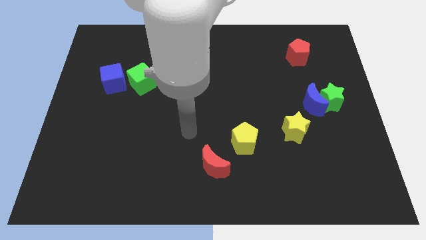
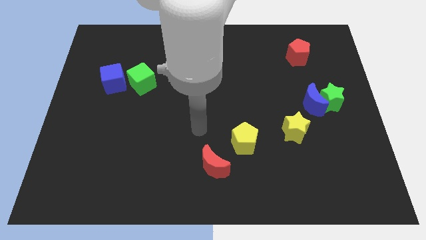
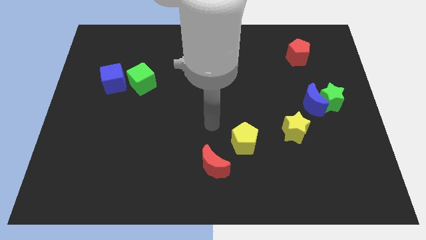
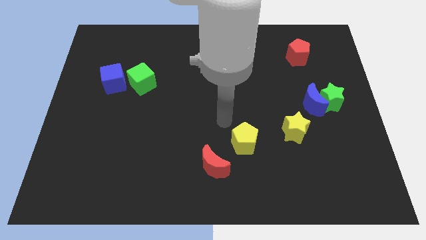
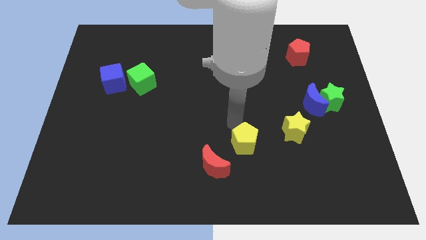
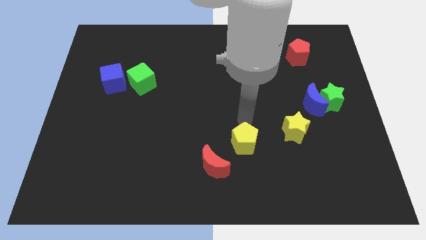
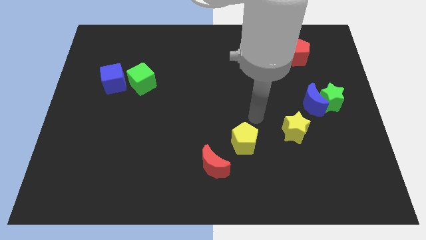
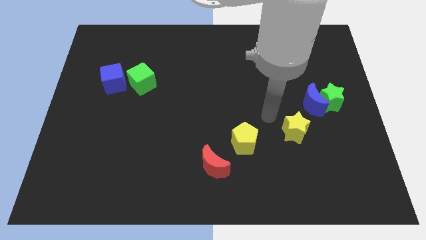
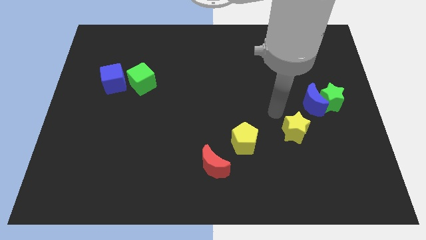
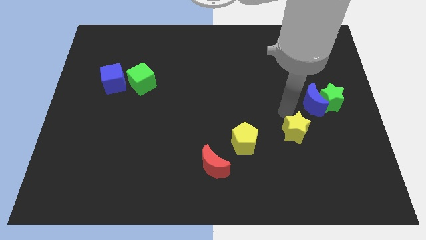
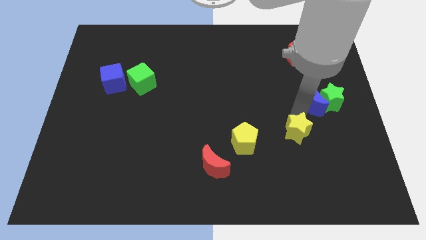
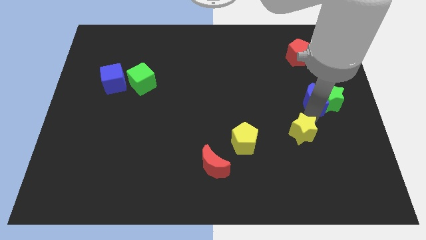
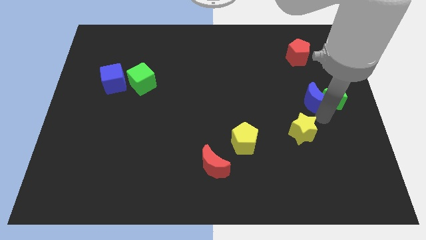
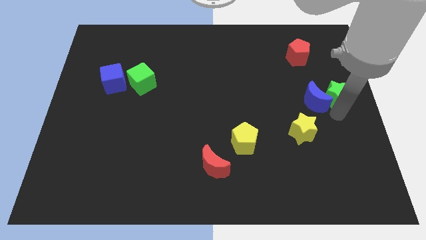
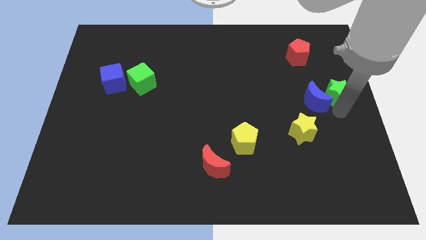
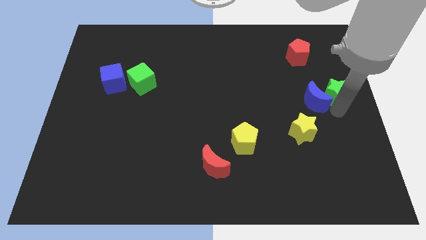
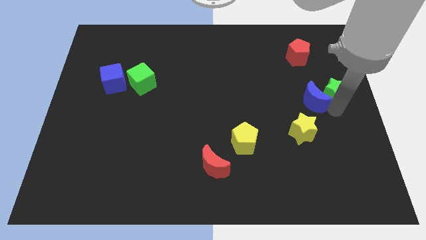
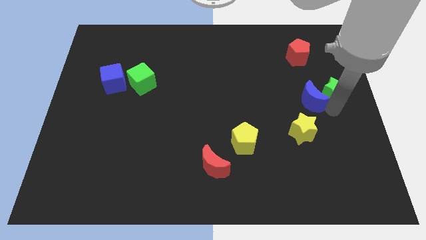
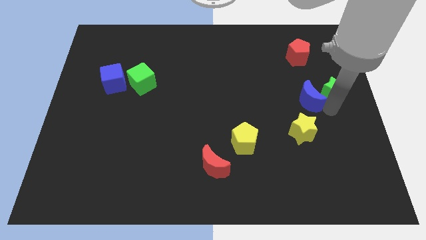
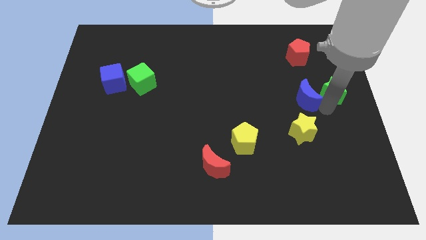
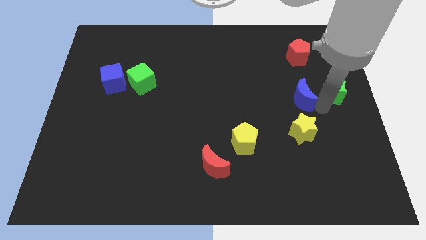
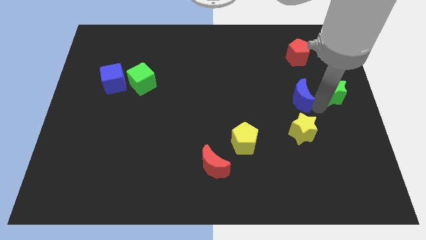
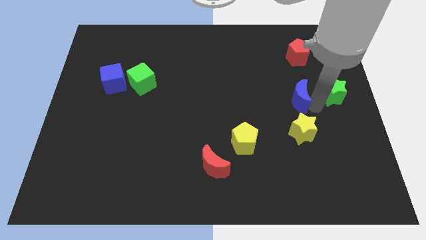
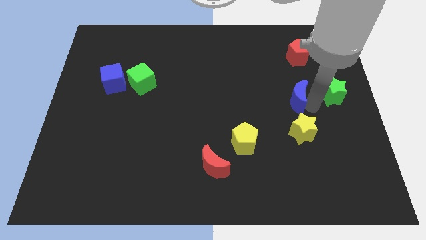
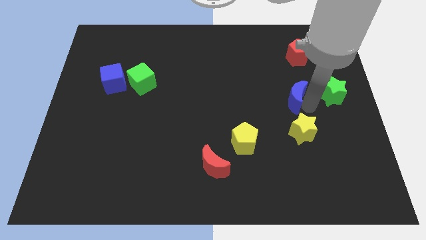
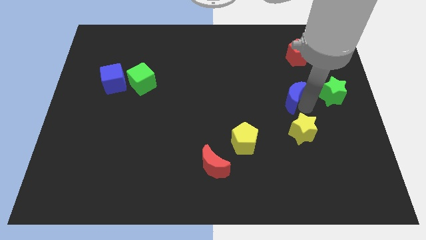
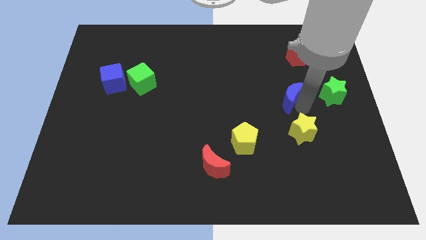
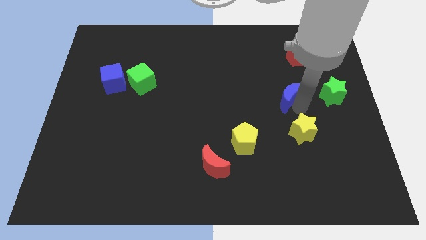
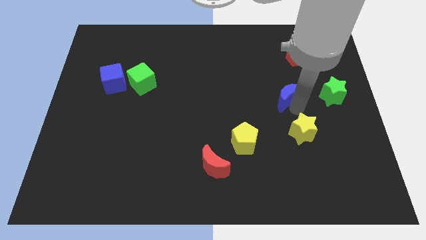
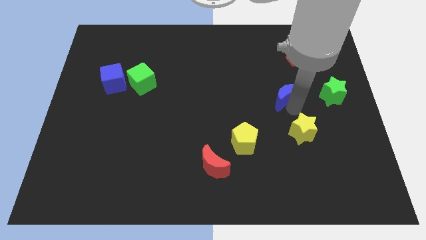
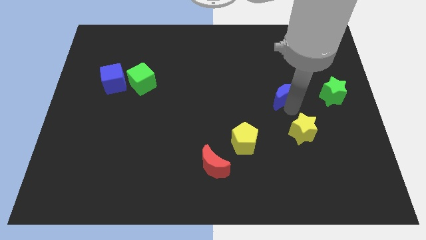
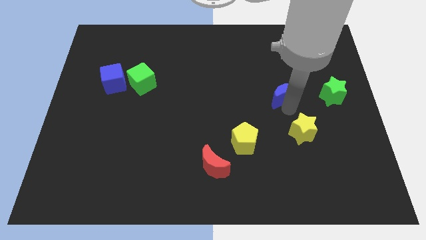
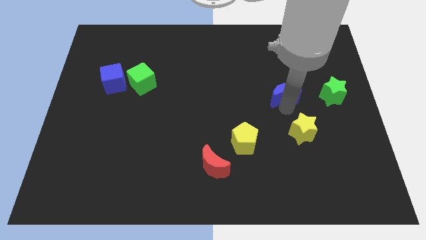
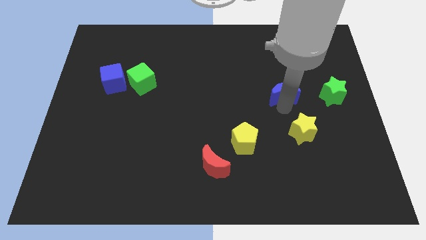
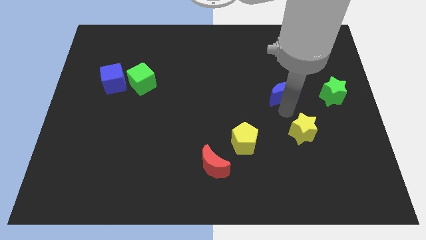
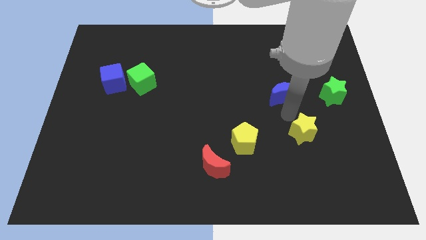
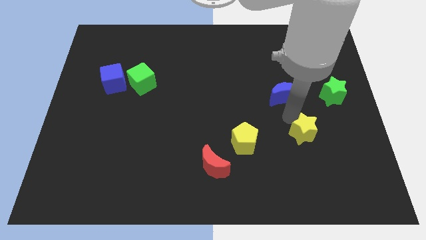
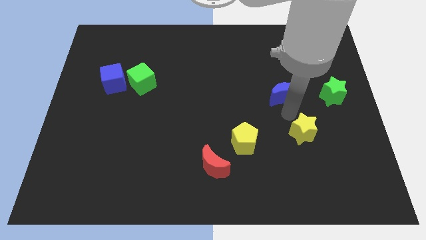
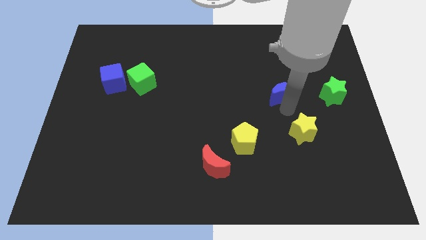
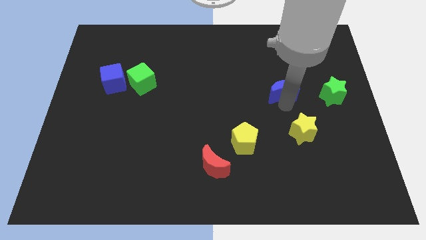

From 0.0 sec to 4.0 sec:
move the blue moon upwards and to the left diagonally slightly

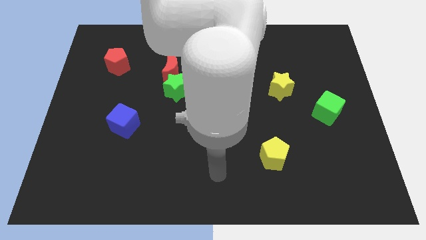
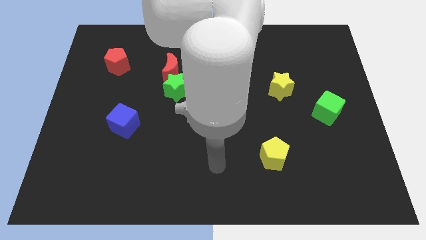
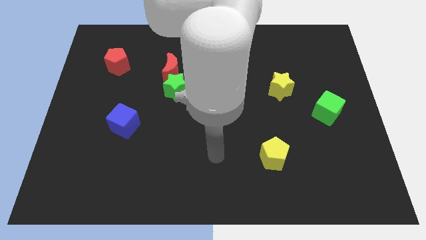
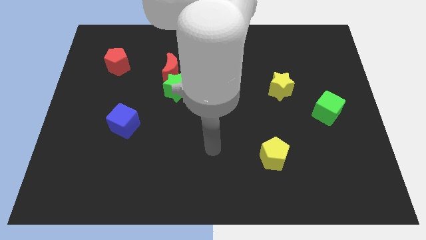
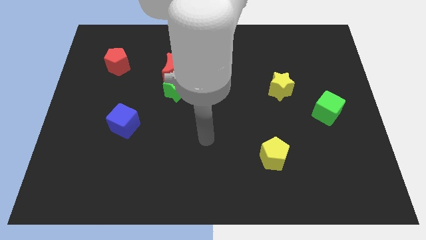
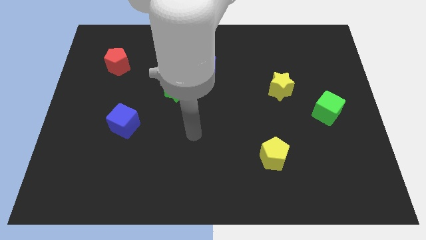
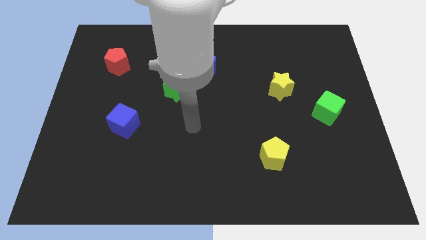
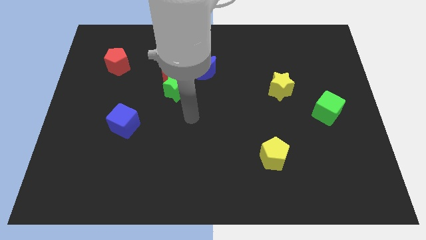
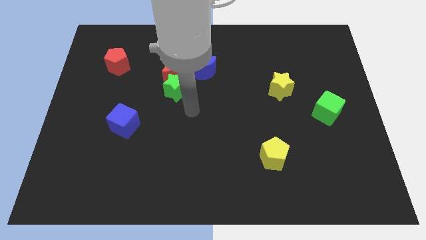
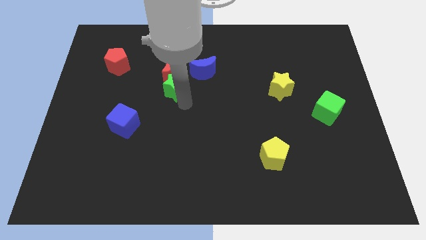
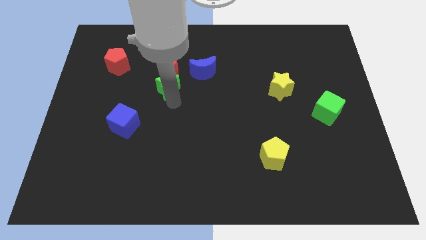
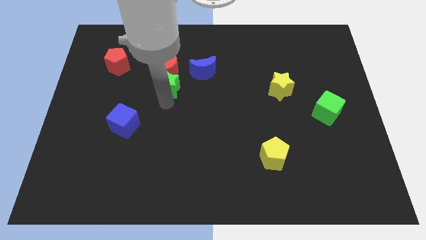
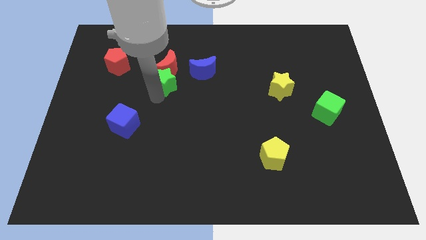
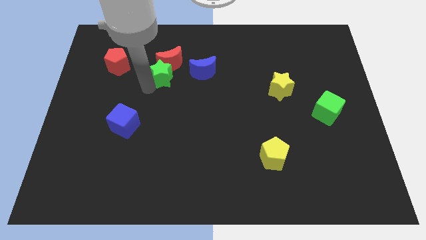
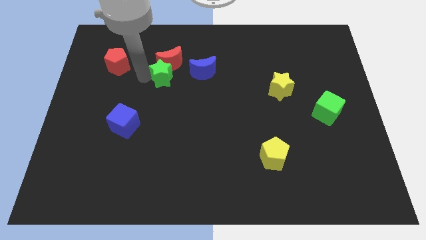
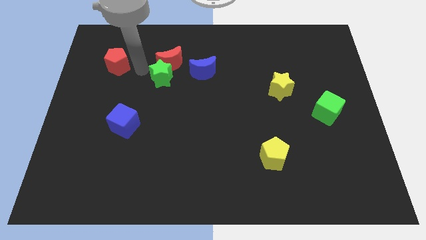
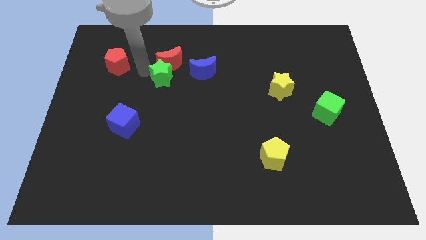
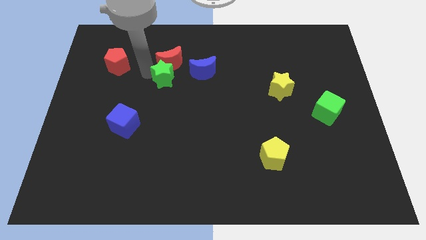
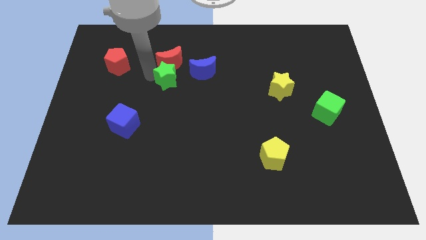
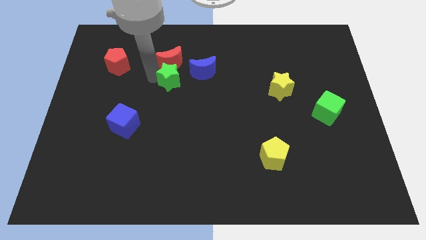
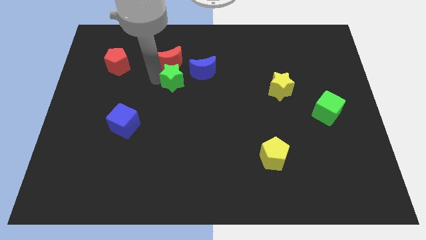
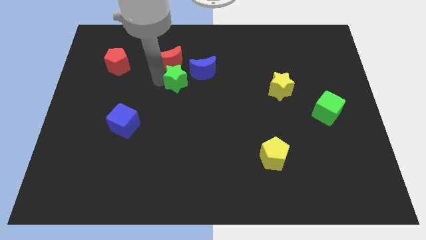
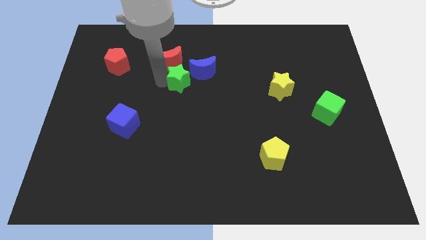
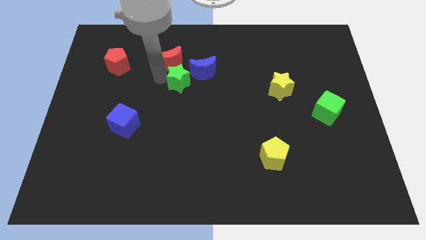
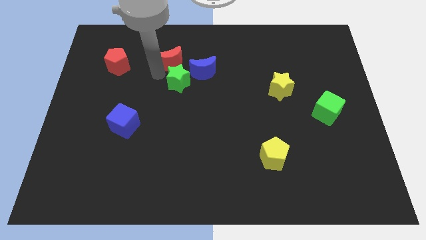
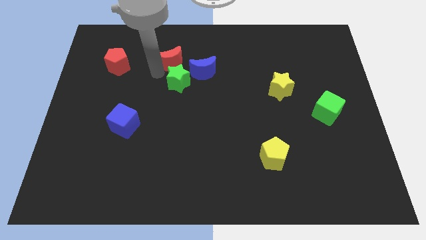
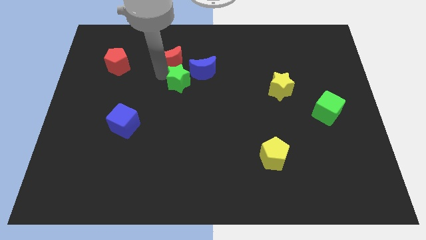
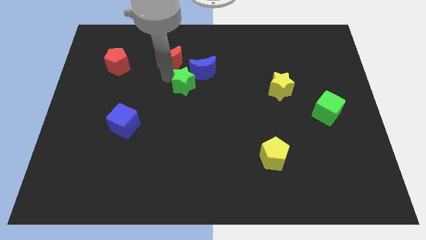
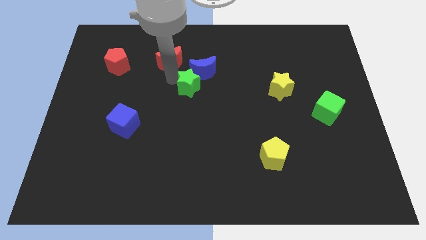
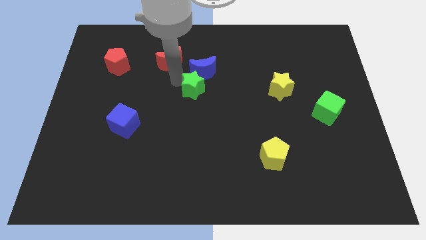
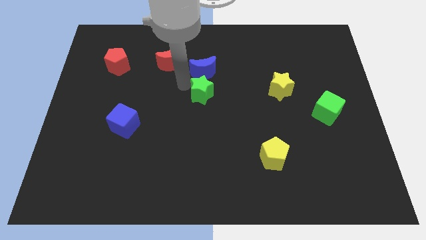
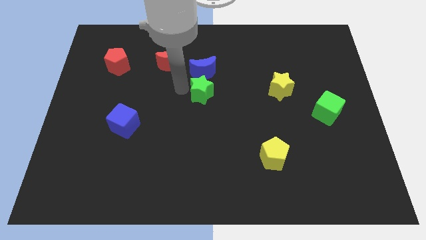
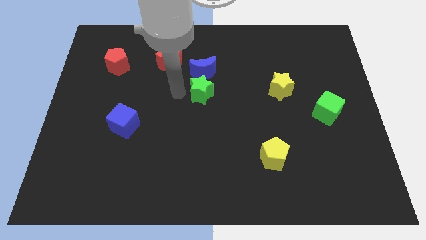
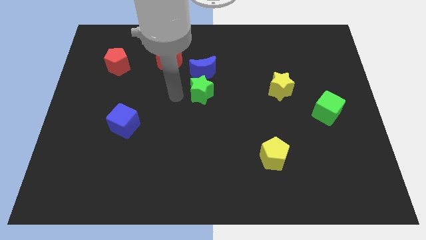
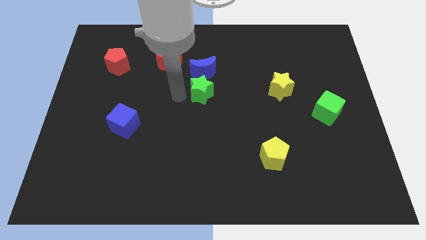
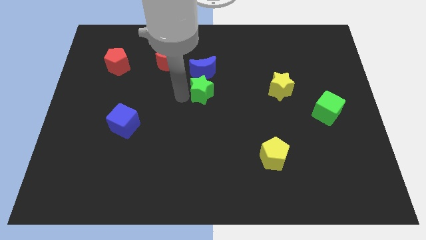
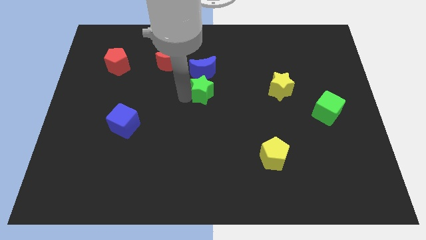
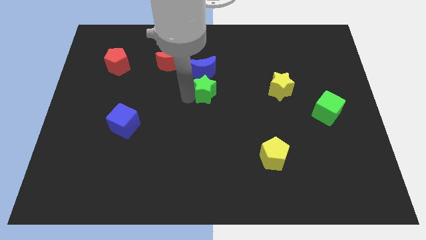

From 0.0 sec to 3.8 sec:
push the green star a little right

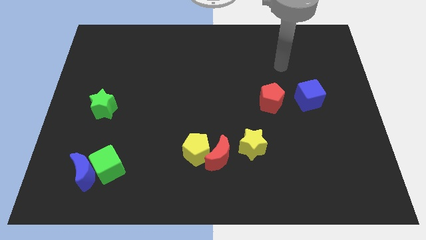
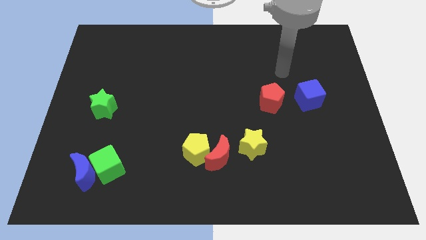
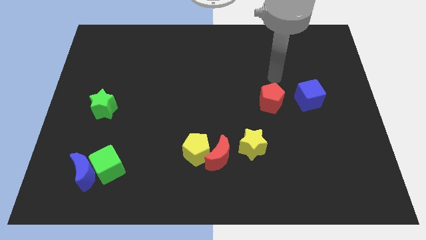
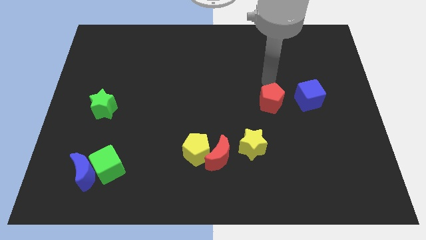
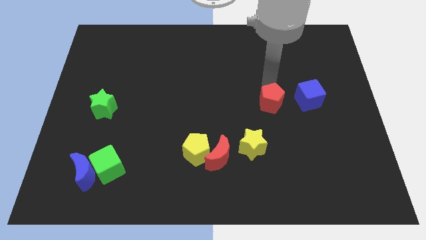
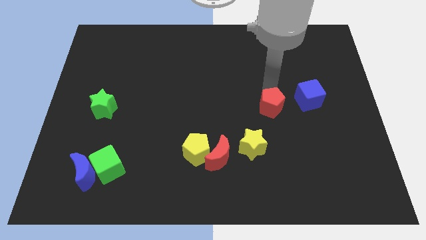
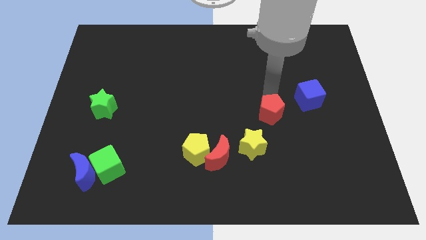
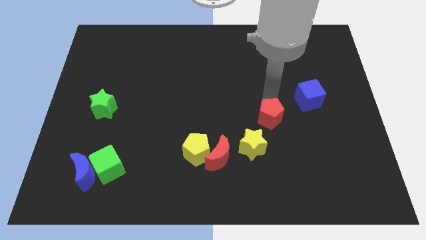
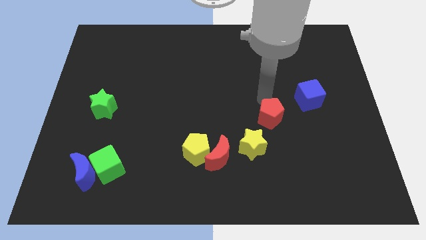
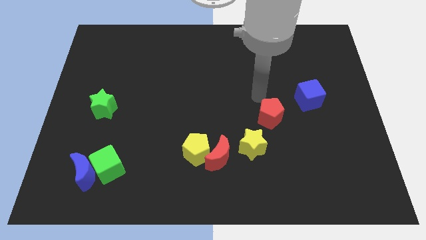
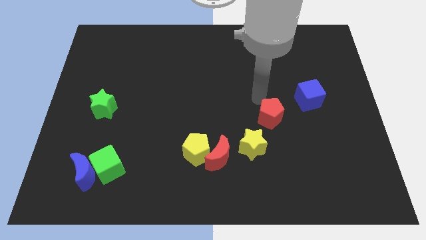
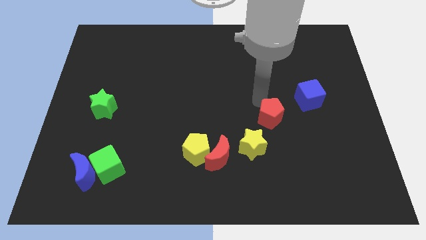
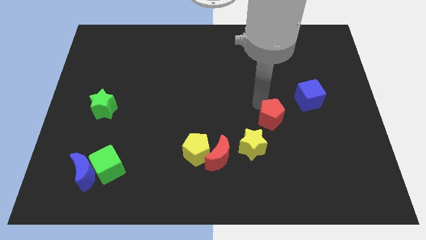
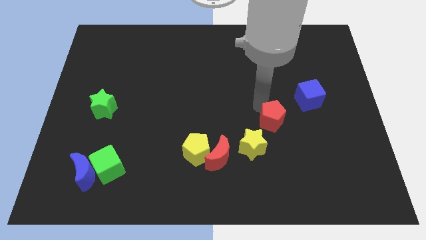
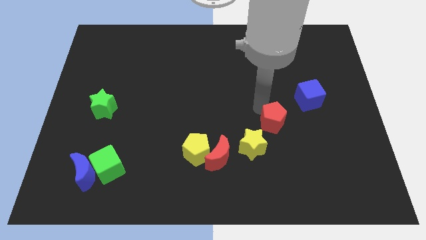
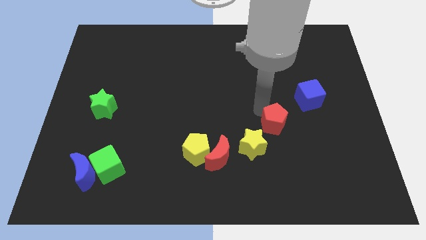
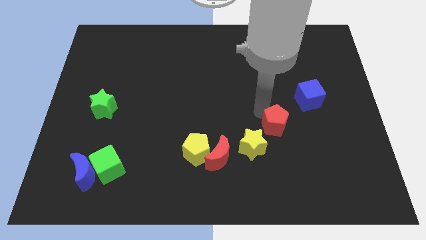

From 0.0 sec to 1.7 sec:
move the red pentagon a bit downwards
